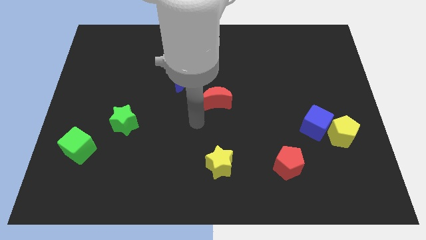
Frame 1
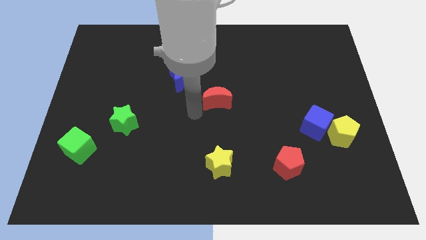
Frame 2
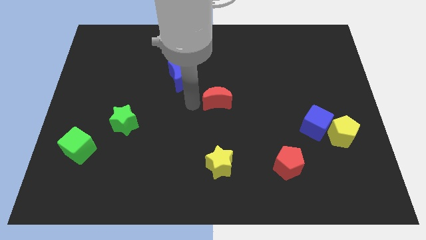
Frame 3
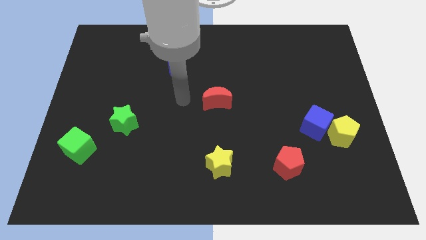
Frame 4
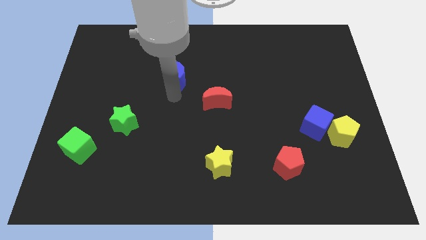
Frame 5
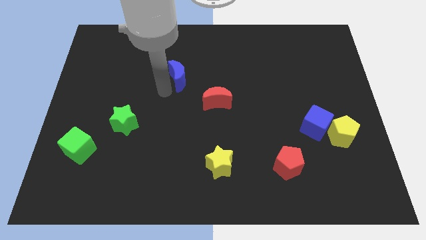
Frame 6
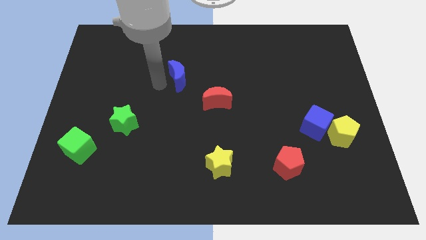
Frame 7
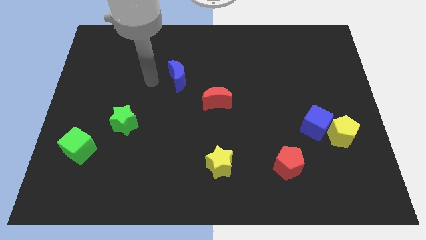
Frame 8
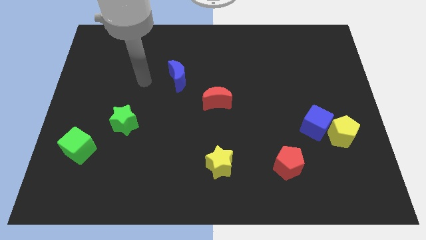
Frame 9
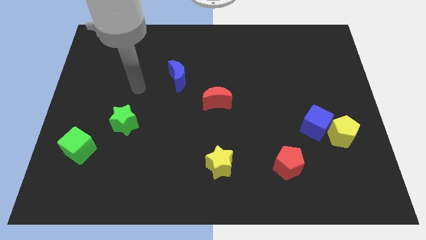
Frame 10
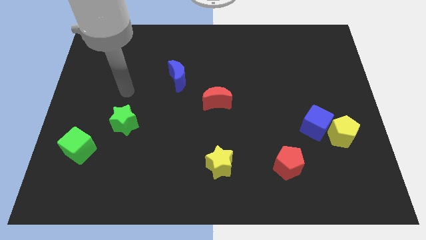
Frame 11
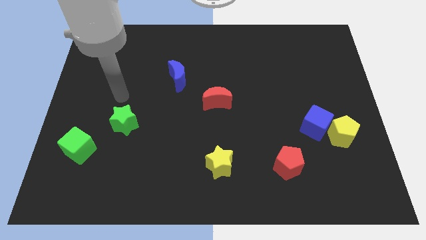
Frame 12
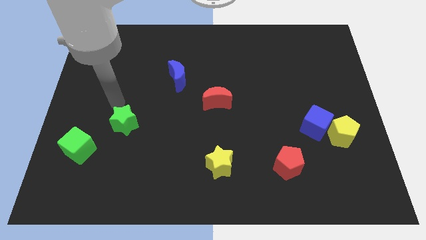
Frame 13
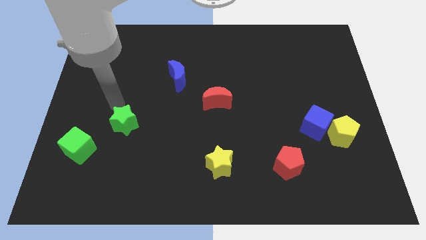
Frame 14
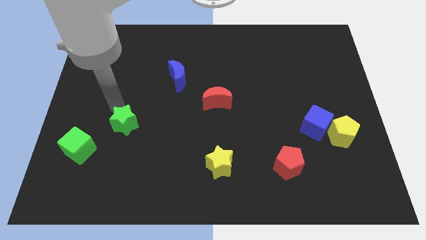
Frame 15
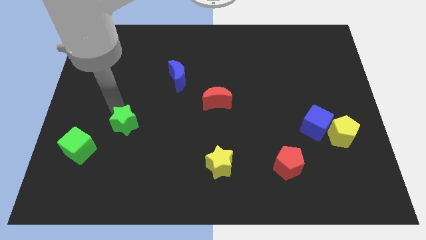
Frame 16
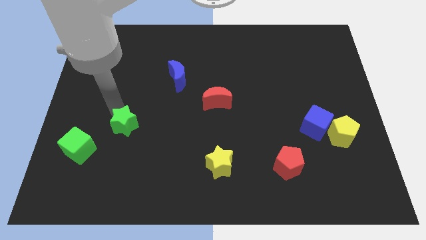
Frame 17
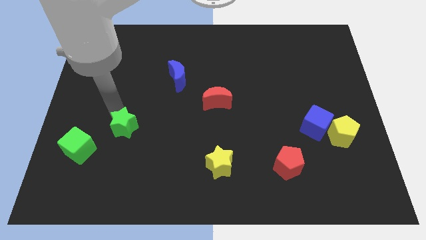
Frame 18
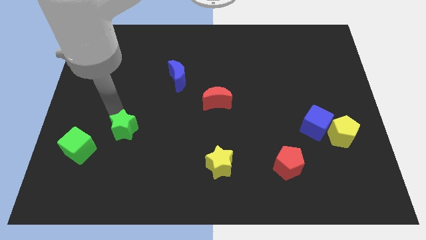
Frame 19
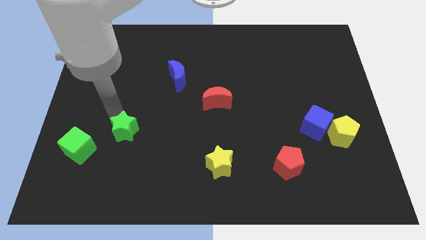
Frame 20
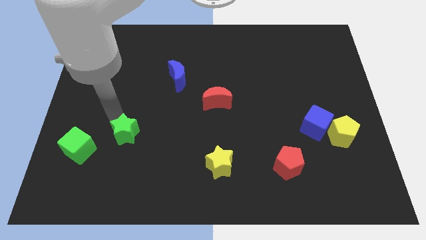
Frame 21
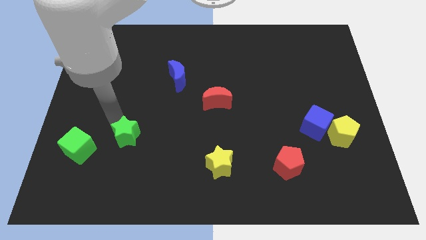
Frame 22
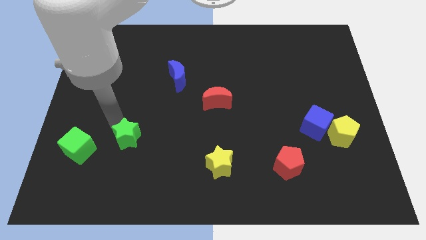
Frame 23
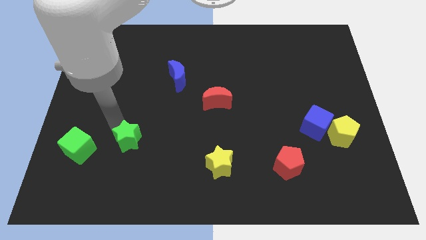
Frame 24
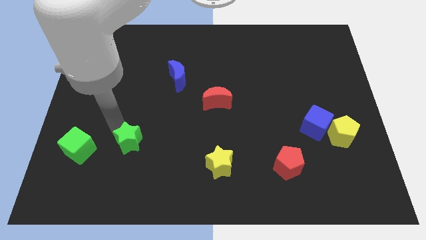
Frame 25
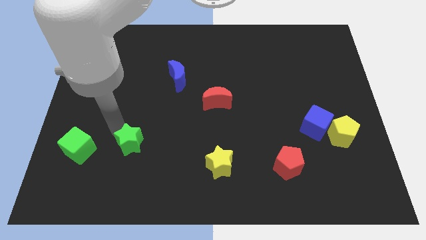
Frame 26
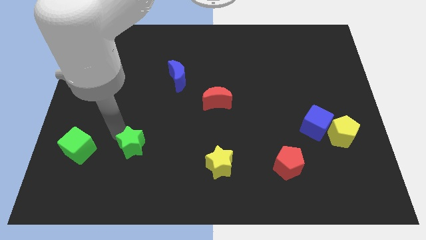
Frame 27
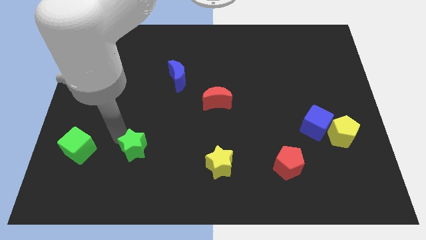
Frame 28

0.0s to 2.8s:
slide the green star diagonally downwards and to the right slightly

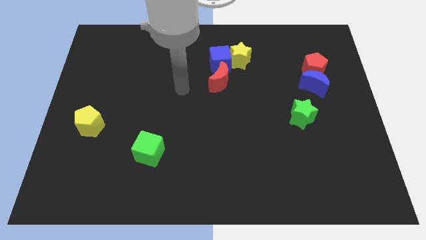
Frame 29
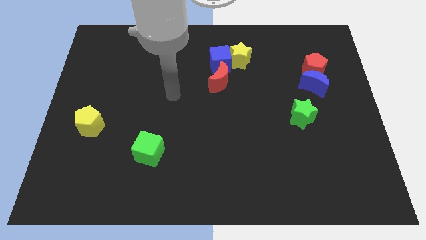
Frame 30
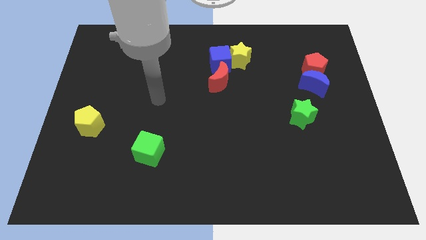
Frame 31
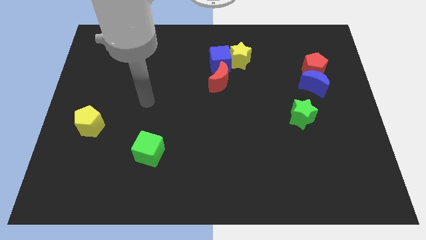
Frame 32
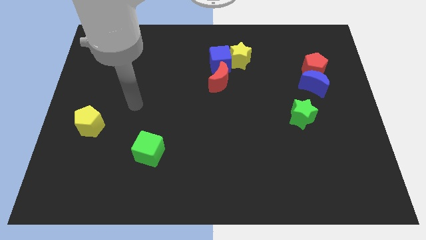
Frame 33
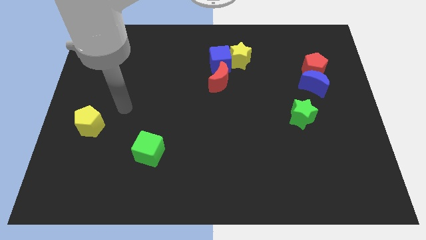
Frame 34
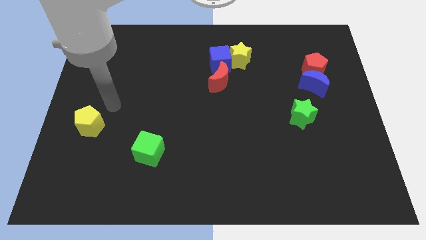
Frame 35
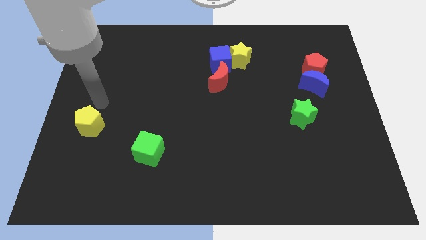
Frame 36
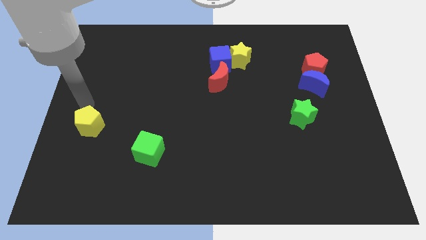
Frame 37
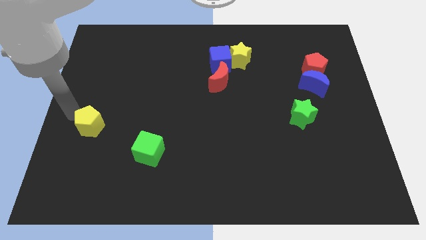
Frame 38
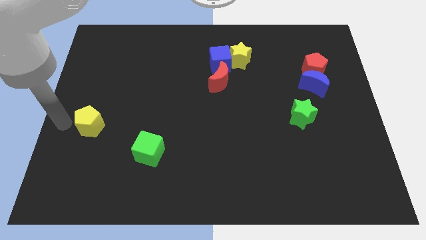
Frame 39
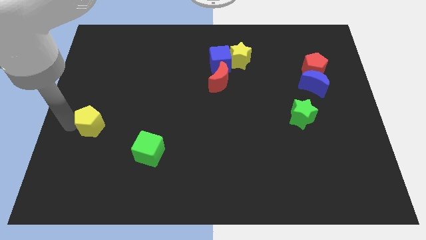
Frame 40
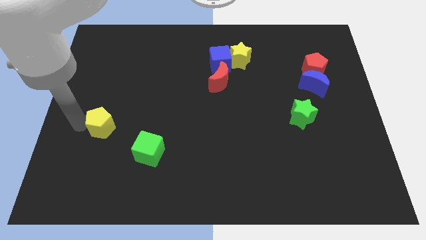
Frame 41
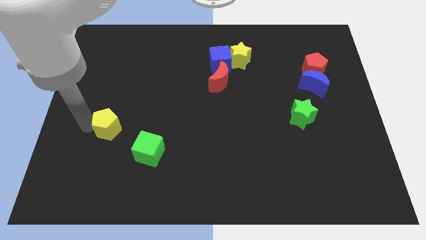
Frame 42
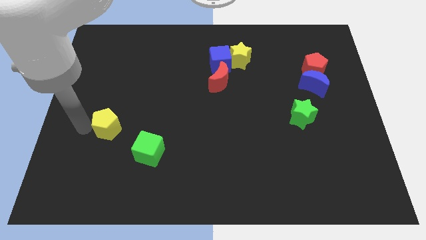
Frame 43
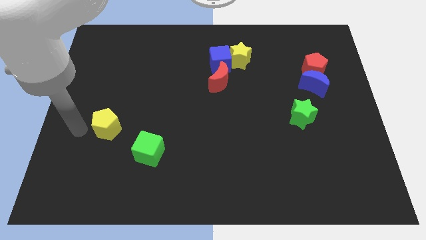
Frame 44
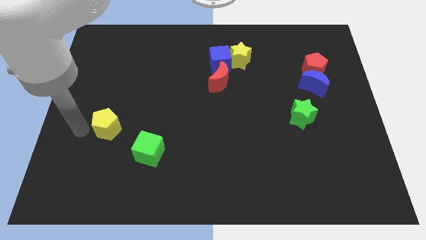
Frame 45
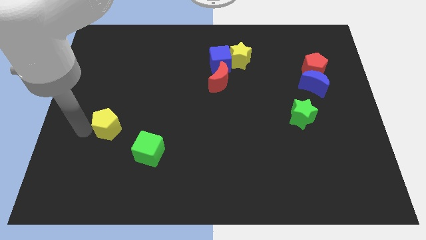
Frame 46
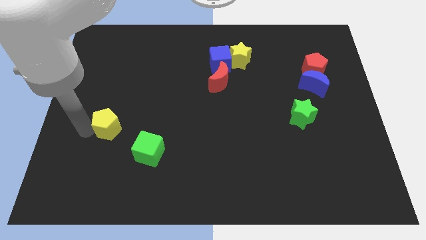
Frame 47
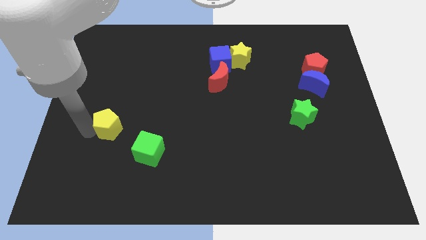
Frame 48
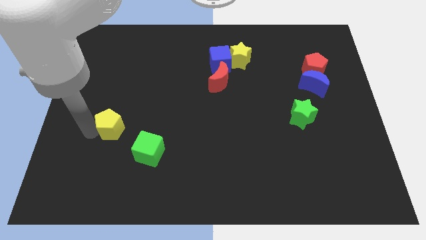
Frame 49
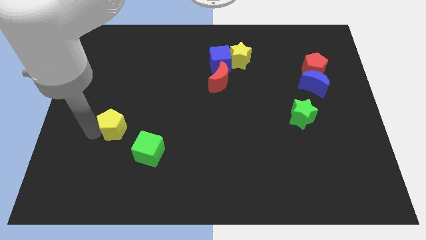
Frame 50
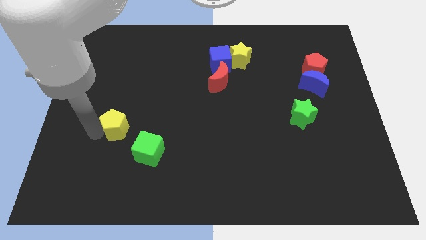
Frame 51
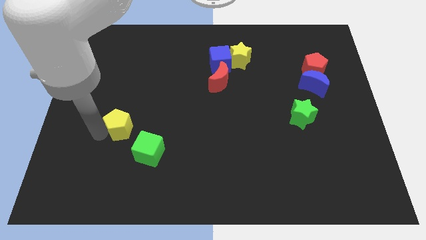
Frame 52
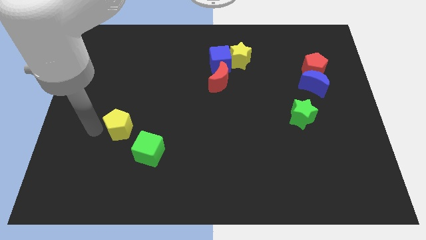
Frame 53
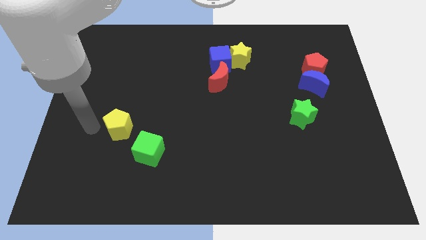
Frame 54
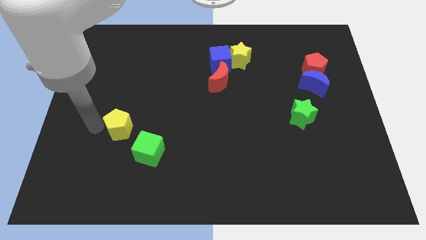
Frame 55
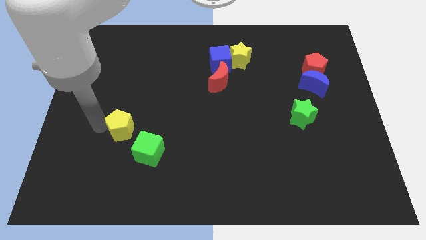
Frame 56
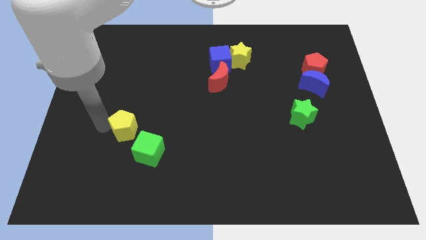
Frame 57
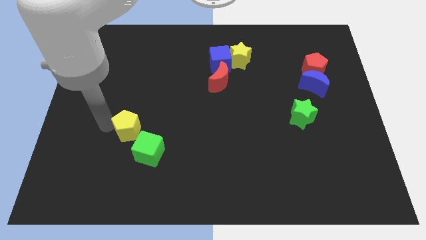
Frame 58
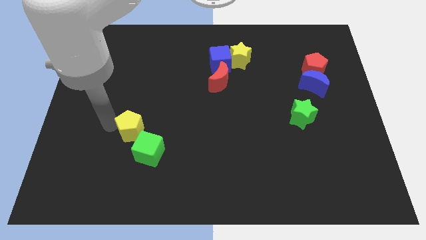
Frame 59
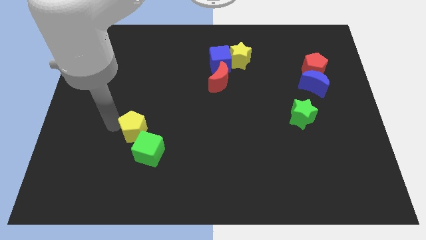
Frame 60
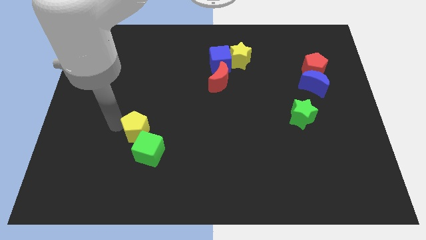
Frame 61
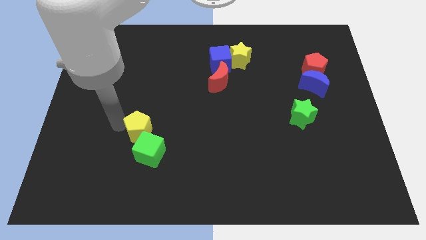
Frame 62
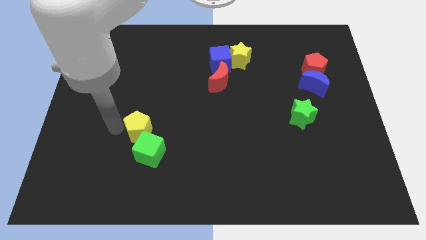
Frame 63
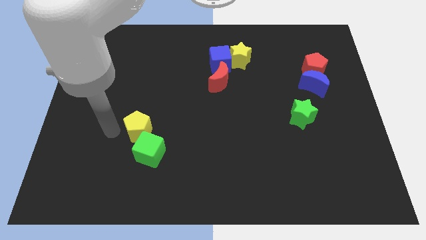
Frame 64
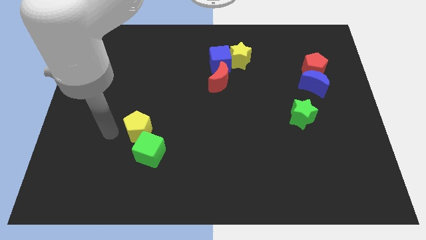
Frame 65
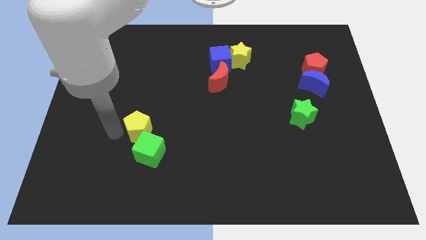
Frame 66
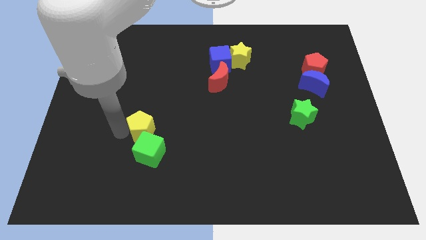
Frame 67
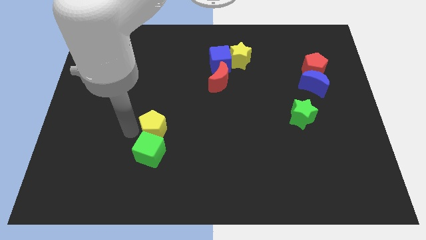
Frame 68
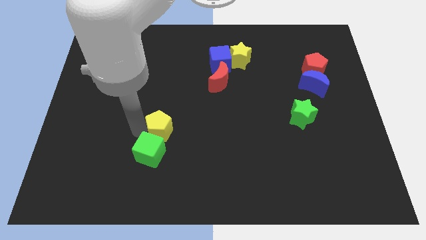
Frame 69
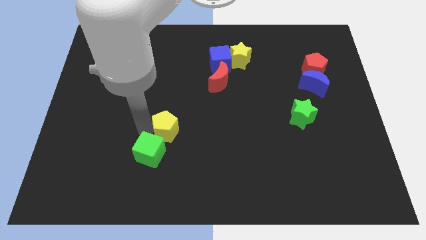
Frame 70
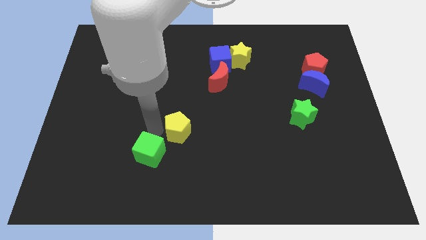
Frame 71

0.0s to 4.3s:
slide the yellow pentagon to the right

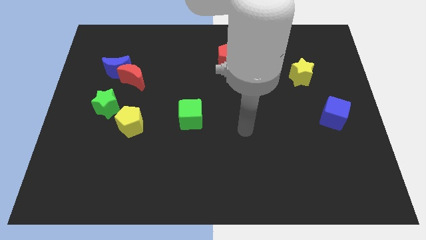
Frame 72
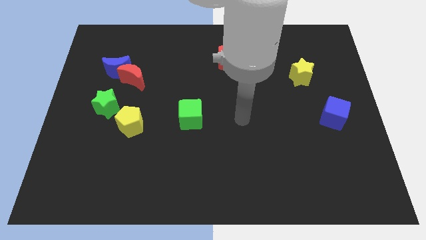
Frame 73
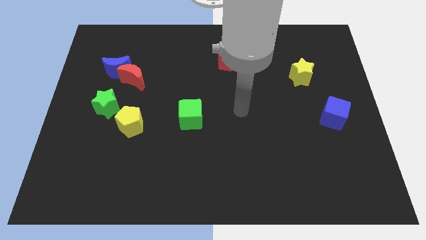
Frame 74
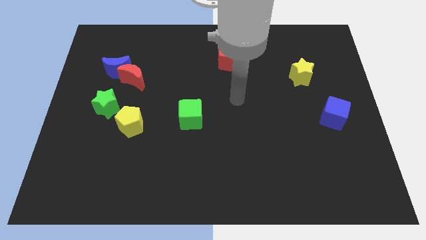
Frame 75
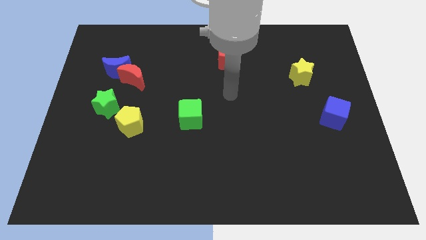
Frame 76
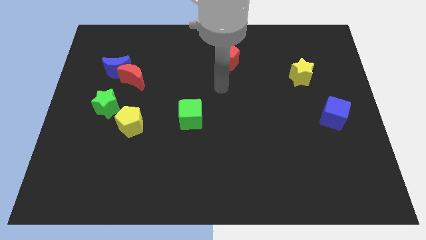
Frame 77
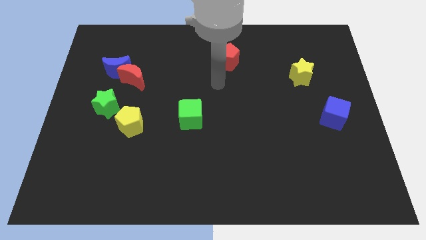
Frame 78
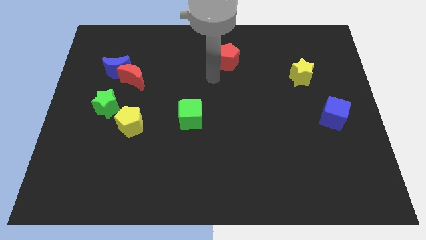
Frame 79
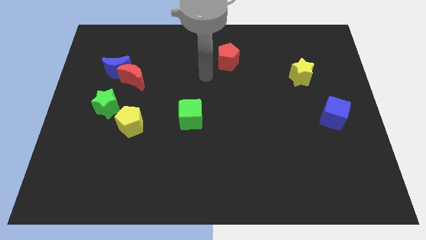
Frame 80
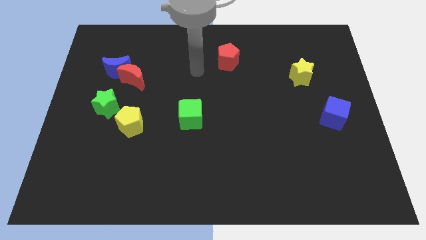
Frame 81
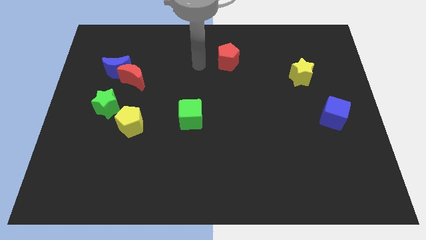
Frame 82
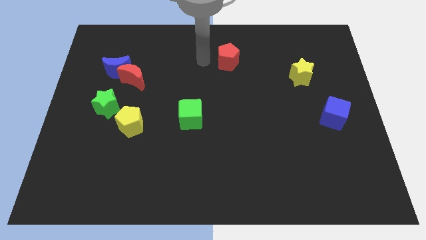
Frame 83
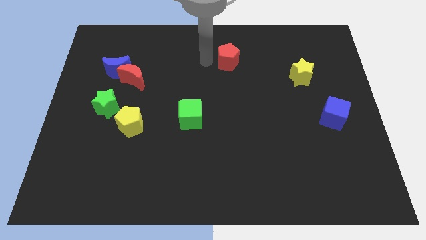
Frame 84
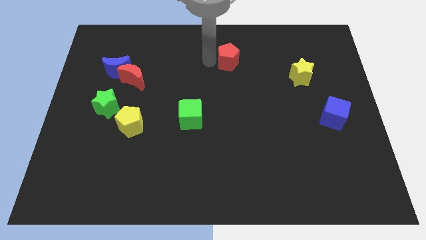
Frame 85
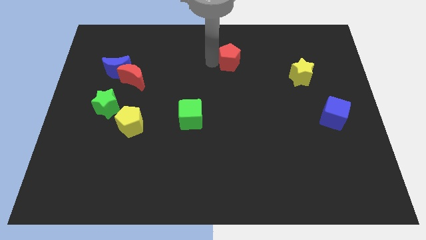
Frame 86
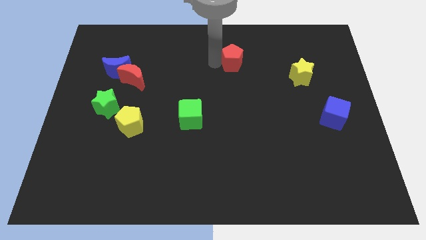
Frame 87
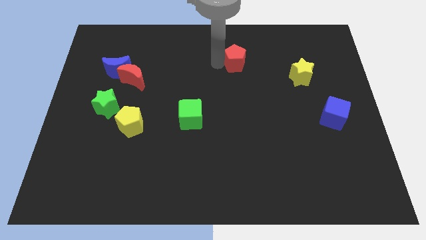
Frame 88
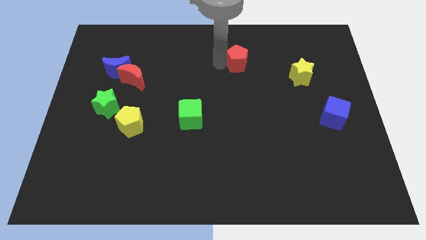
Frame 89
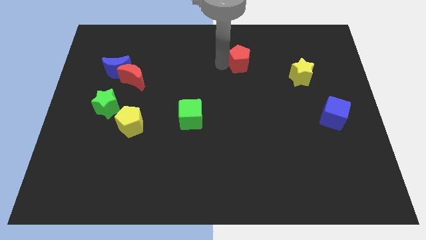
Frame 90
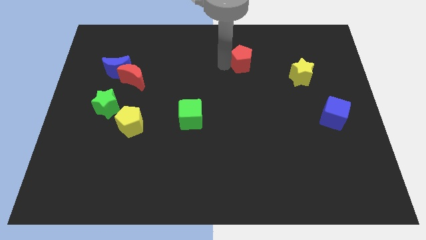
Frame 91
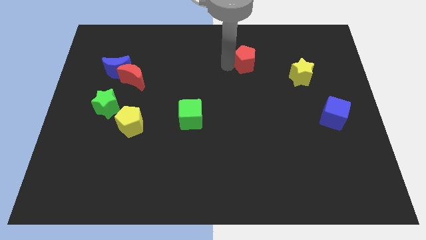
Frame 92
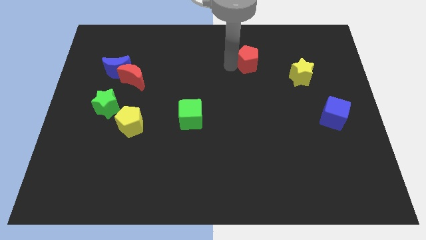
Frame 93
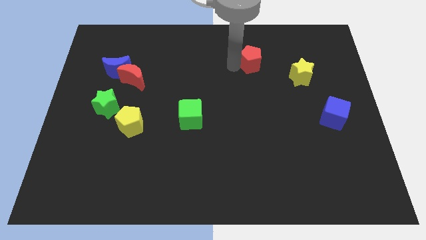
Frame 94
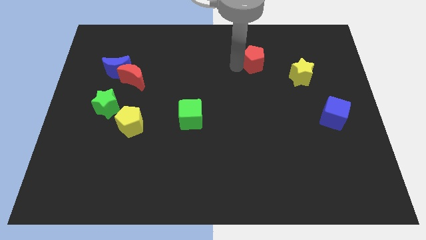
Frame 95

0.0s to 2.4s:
move the red pentagon a little bit to the right
